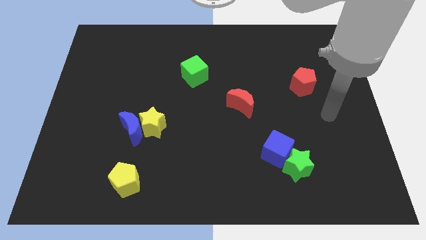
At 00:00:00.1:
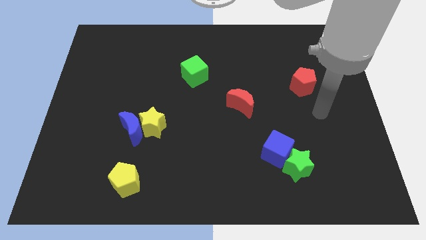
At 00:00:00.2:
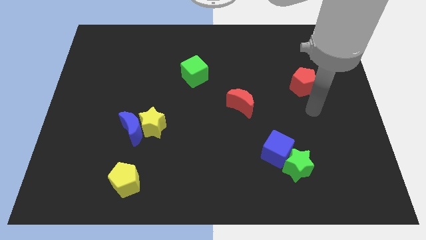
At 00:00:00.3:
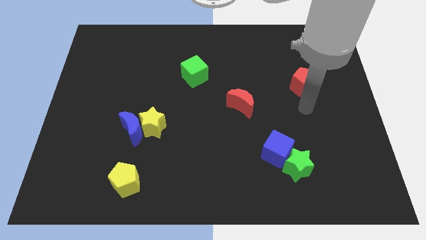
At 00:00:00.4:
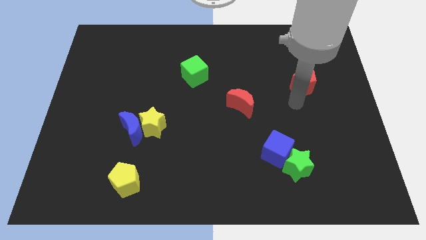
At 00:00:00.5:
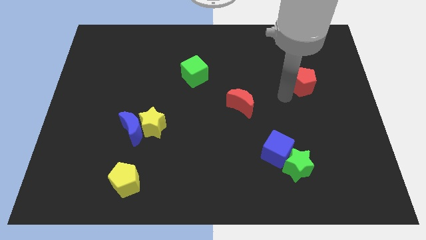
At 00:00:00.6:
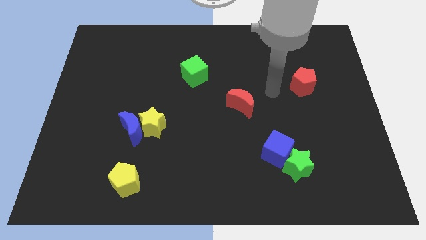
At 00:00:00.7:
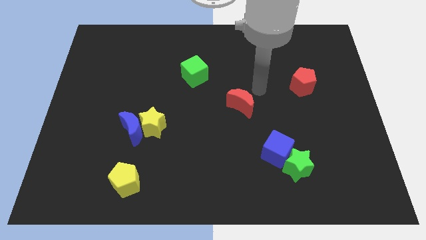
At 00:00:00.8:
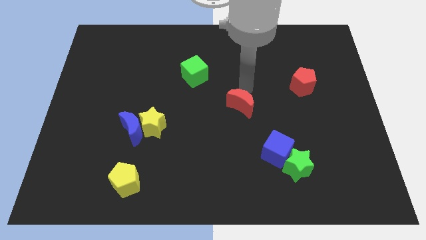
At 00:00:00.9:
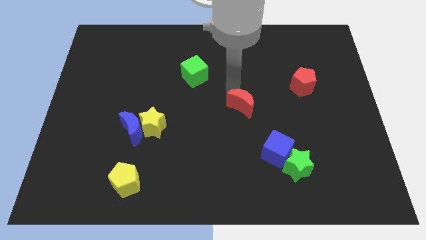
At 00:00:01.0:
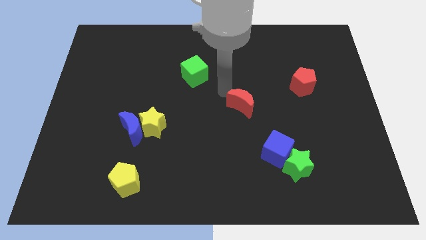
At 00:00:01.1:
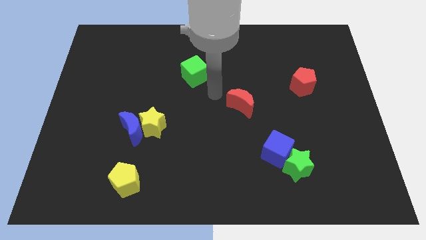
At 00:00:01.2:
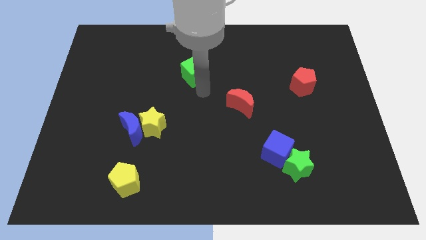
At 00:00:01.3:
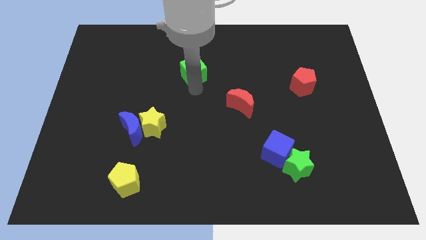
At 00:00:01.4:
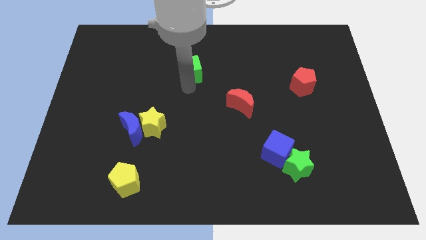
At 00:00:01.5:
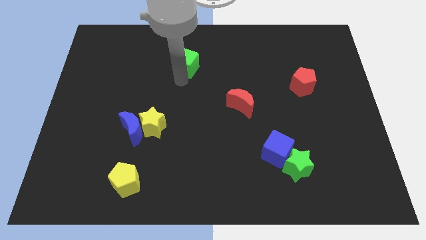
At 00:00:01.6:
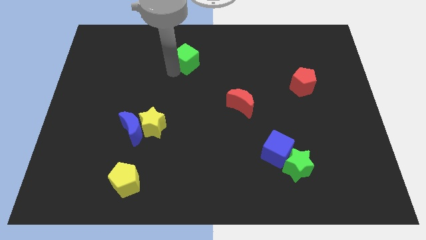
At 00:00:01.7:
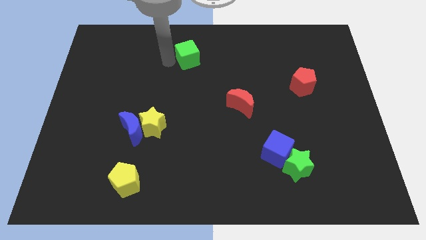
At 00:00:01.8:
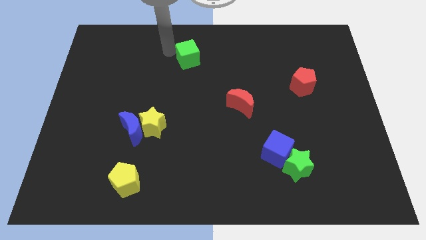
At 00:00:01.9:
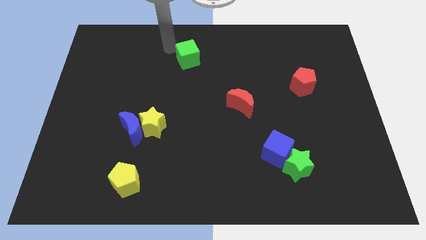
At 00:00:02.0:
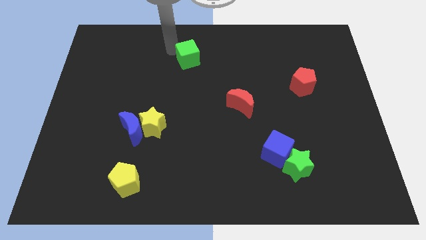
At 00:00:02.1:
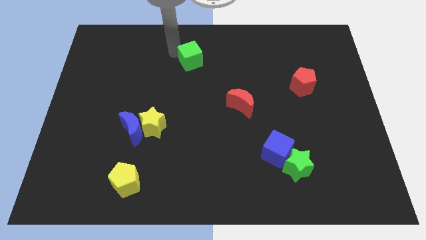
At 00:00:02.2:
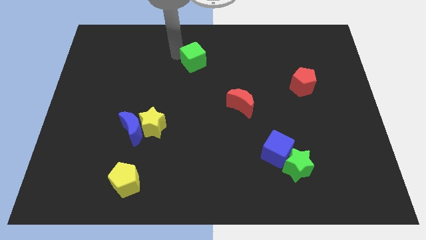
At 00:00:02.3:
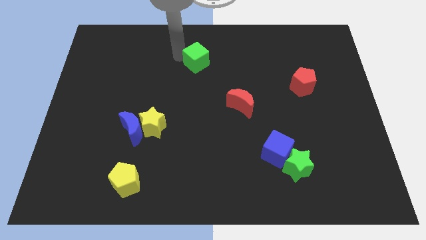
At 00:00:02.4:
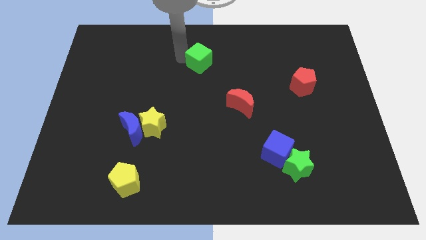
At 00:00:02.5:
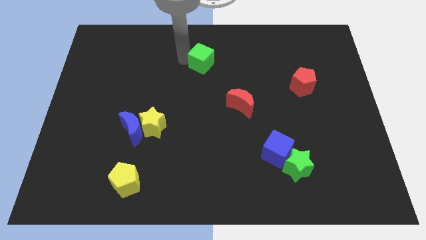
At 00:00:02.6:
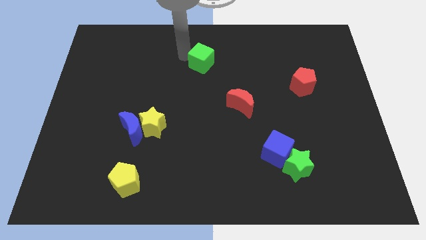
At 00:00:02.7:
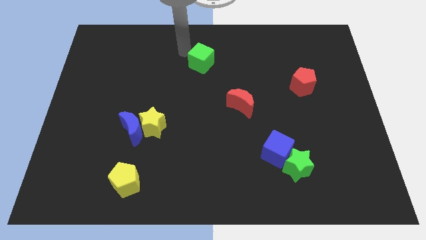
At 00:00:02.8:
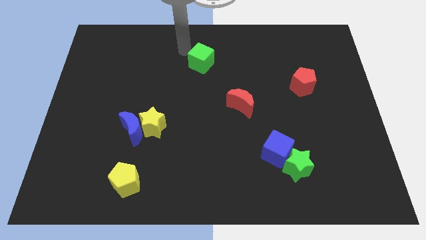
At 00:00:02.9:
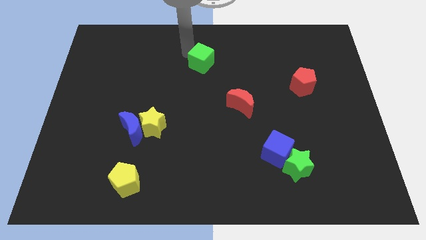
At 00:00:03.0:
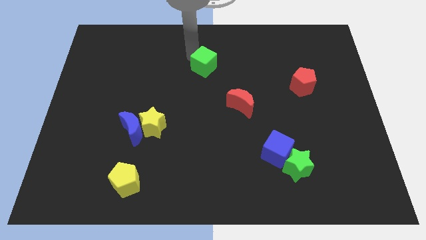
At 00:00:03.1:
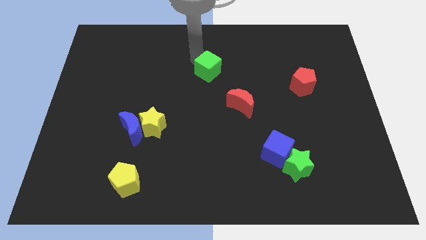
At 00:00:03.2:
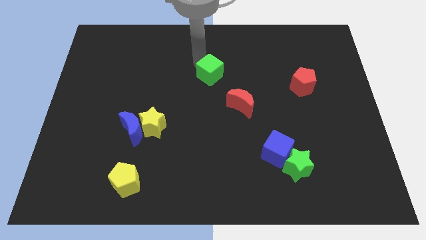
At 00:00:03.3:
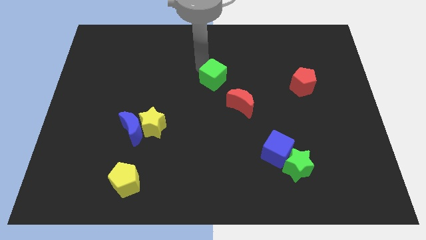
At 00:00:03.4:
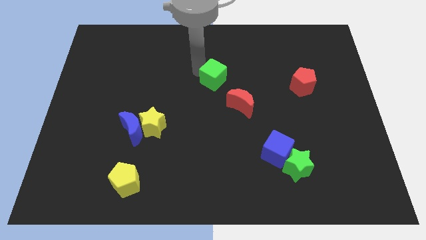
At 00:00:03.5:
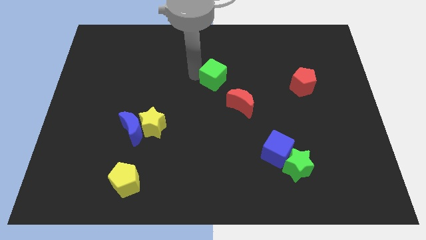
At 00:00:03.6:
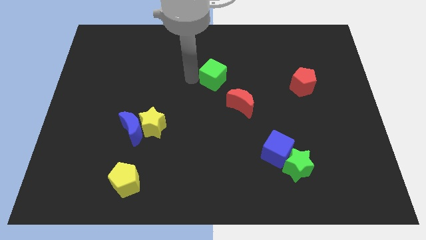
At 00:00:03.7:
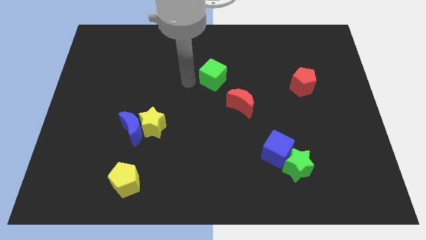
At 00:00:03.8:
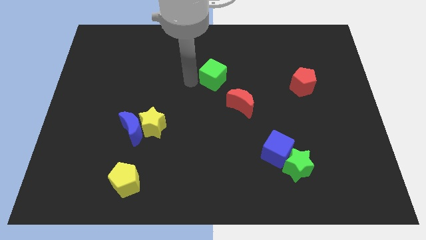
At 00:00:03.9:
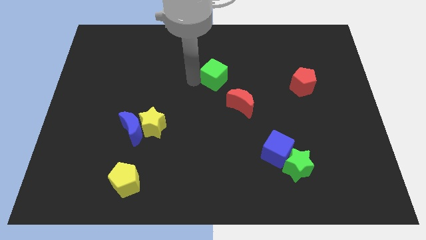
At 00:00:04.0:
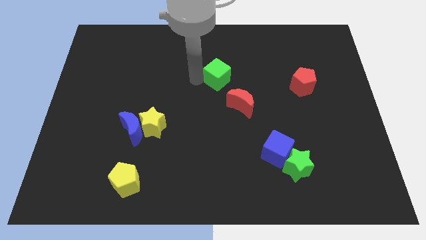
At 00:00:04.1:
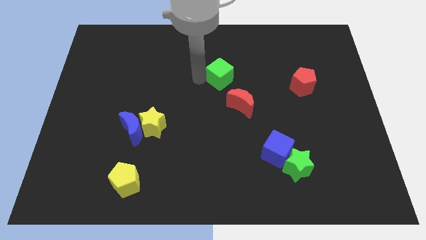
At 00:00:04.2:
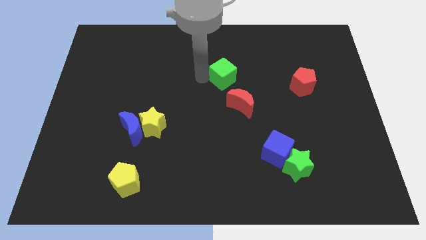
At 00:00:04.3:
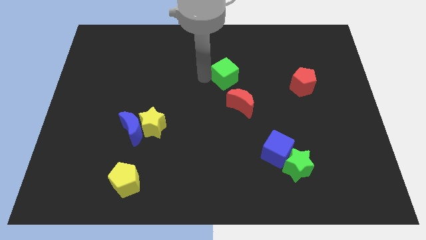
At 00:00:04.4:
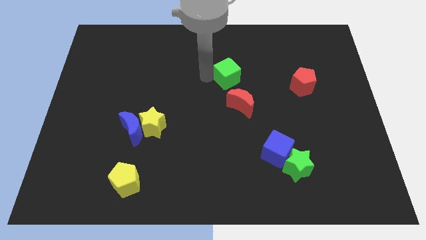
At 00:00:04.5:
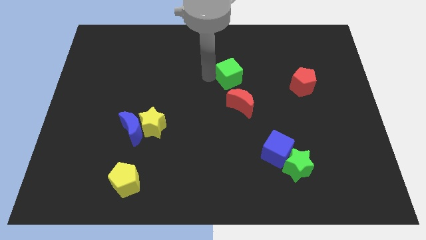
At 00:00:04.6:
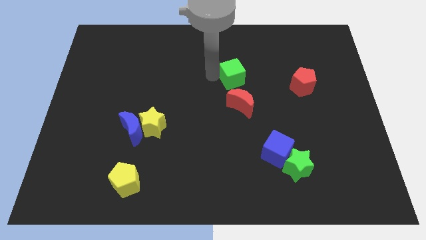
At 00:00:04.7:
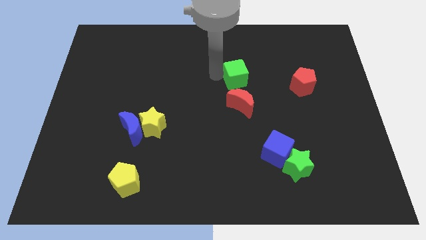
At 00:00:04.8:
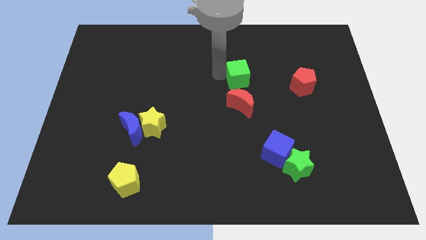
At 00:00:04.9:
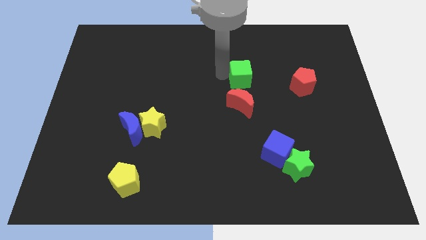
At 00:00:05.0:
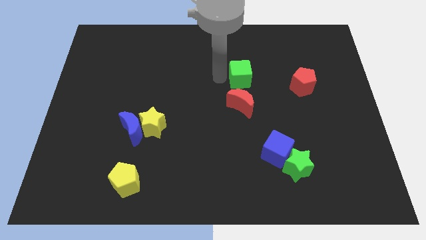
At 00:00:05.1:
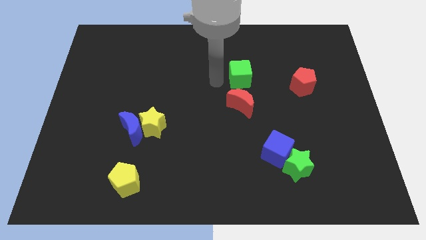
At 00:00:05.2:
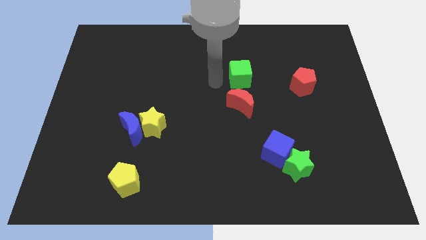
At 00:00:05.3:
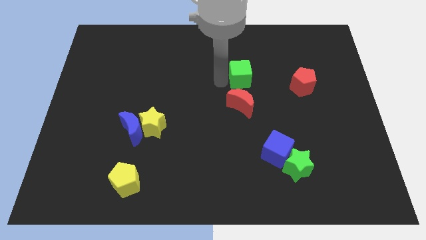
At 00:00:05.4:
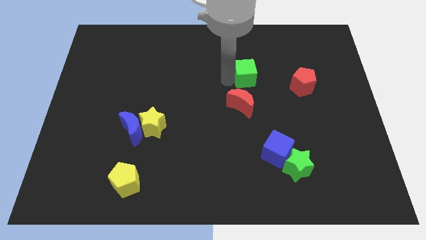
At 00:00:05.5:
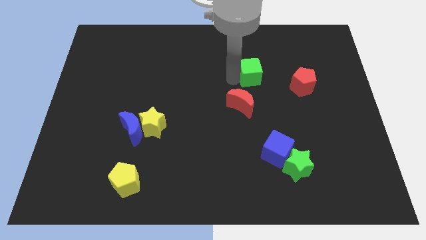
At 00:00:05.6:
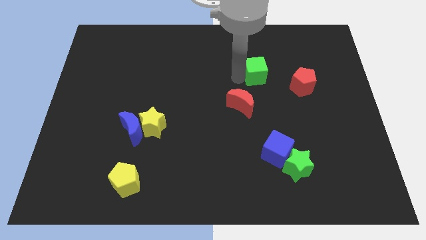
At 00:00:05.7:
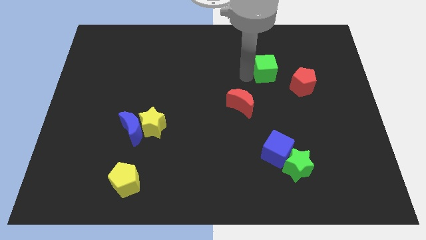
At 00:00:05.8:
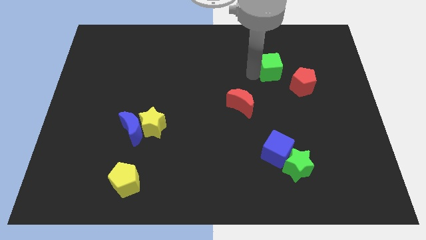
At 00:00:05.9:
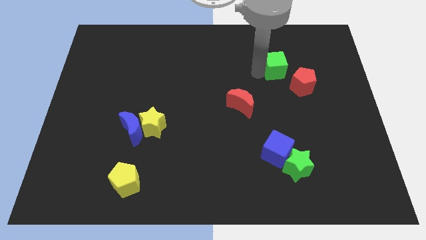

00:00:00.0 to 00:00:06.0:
slide the green cube to the right

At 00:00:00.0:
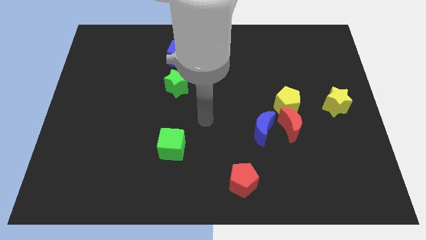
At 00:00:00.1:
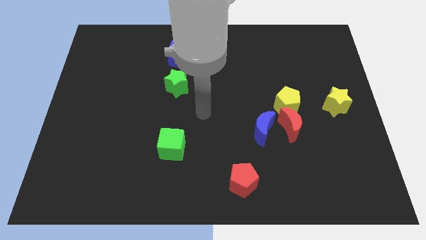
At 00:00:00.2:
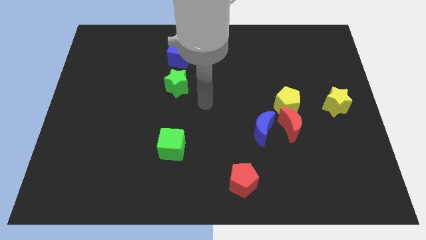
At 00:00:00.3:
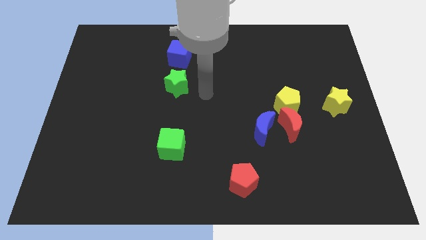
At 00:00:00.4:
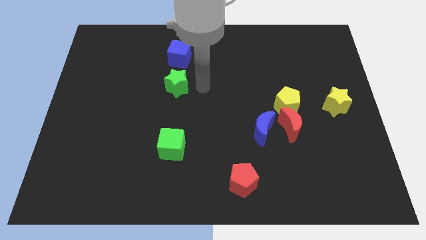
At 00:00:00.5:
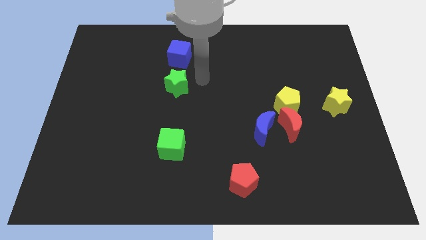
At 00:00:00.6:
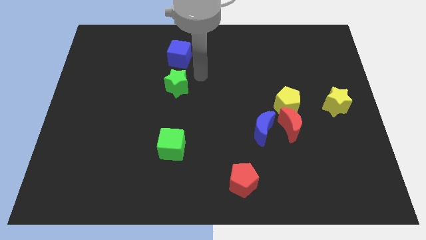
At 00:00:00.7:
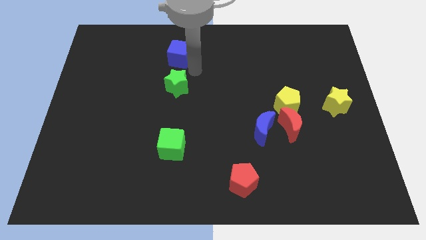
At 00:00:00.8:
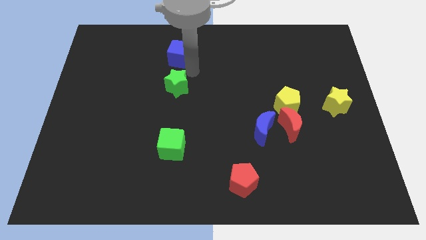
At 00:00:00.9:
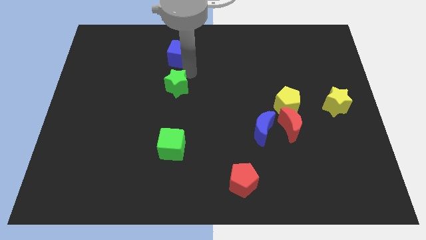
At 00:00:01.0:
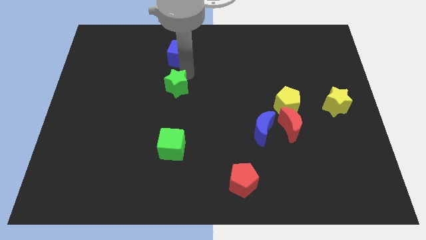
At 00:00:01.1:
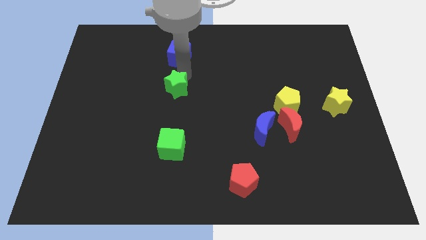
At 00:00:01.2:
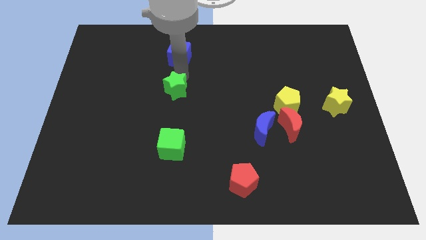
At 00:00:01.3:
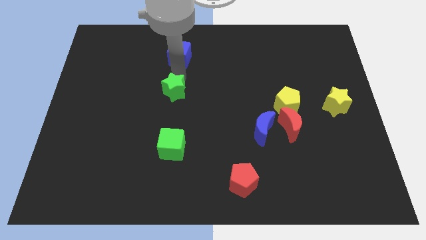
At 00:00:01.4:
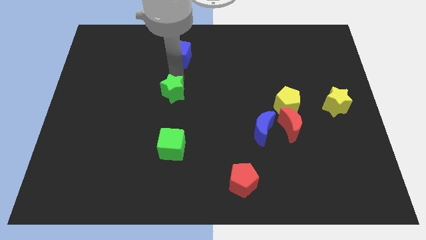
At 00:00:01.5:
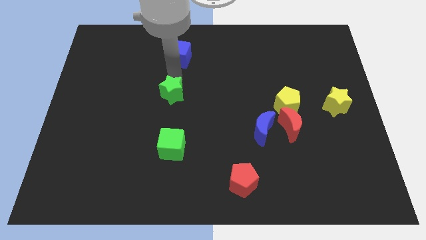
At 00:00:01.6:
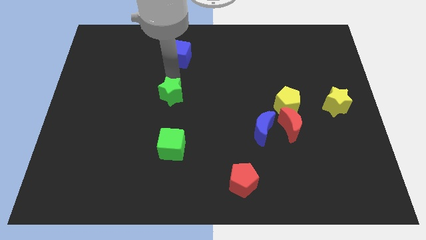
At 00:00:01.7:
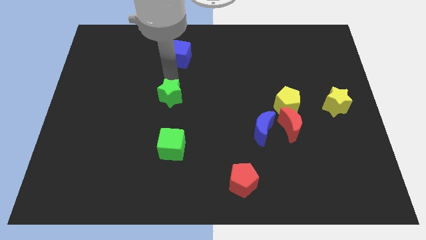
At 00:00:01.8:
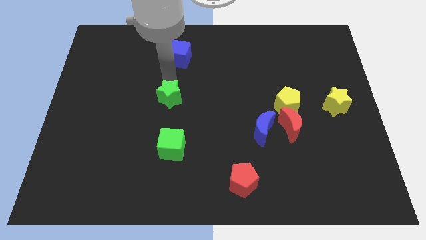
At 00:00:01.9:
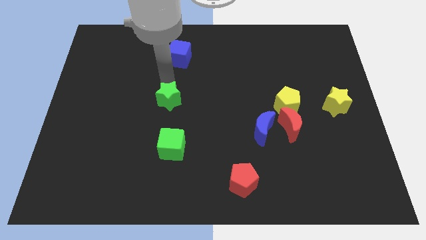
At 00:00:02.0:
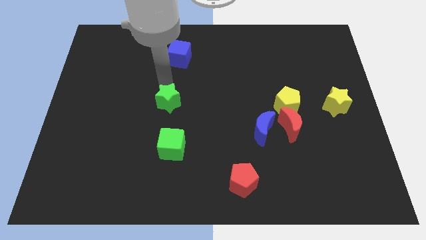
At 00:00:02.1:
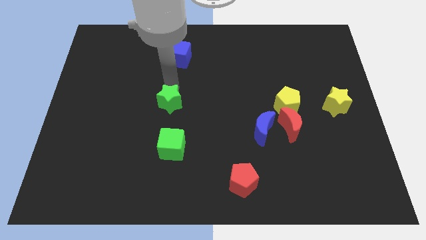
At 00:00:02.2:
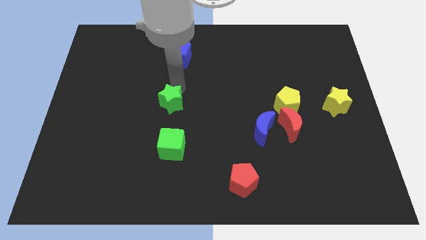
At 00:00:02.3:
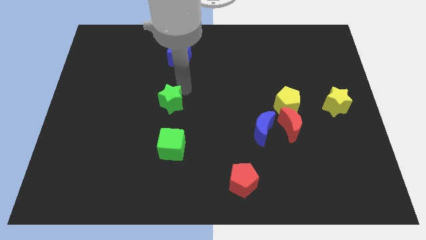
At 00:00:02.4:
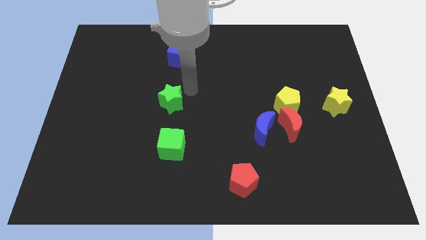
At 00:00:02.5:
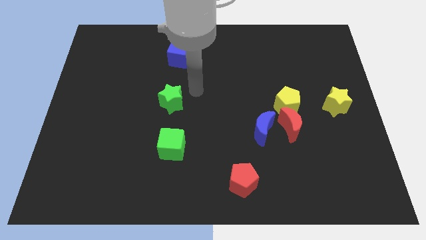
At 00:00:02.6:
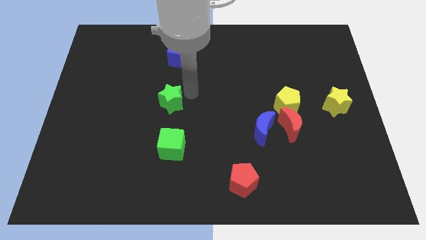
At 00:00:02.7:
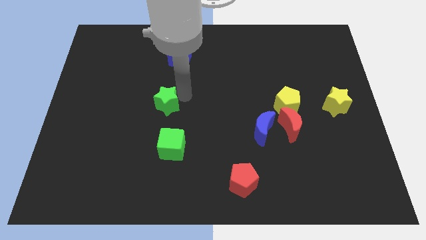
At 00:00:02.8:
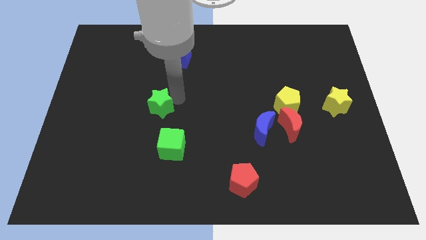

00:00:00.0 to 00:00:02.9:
push the green star diagonally down and to the left a bit
